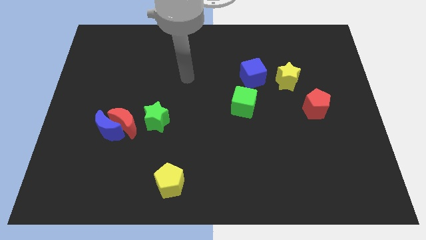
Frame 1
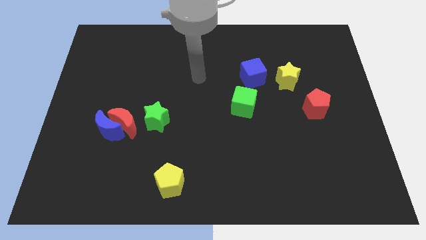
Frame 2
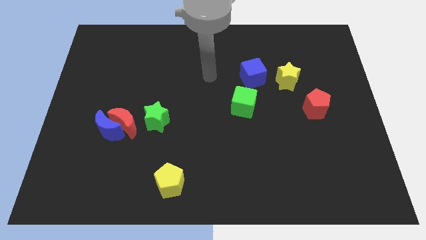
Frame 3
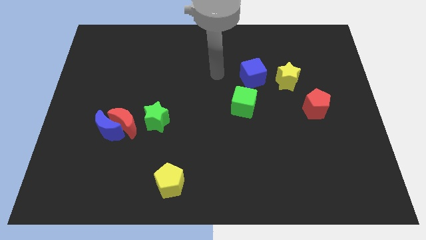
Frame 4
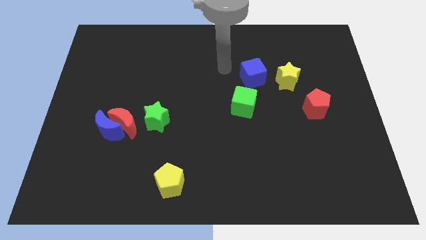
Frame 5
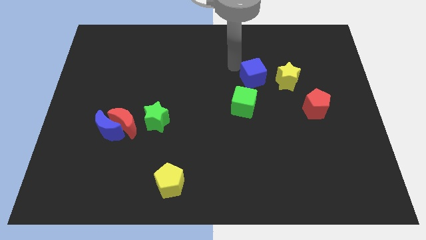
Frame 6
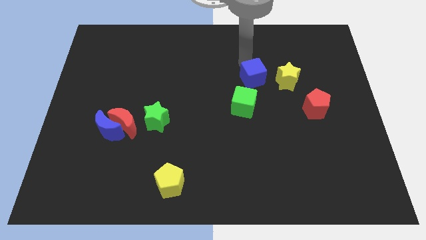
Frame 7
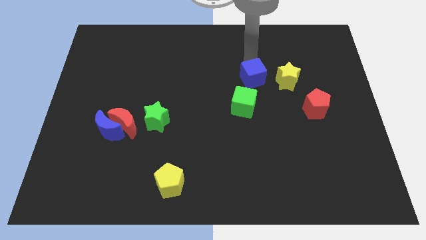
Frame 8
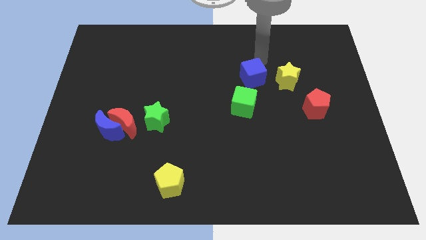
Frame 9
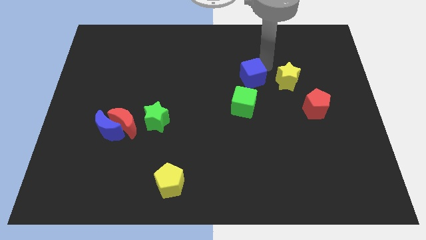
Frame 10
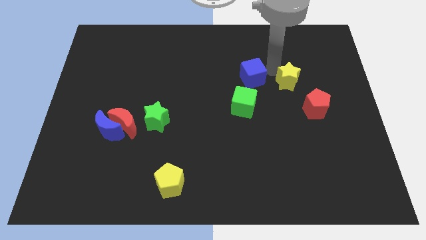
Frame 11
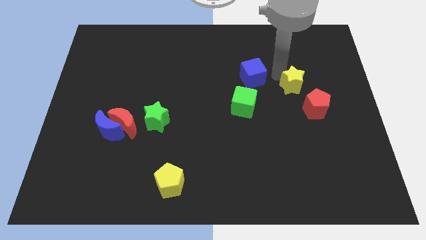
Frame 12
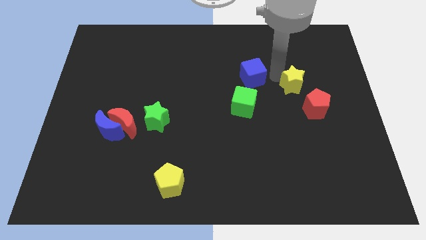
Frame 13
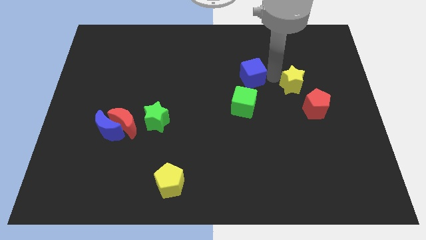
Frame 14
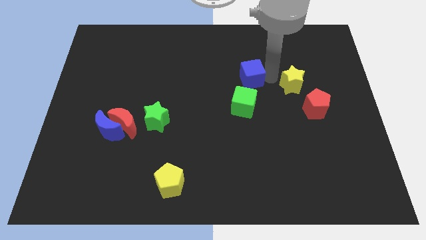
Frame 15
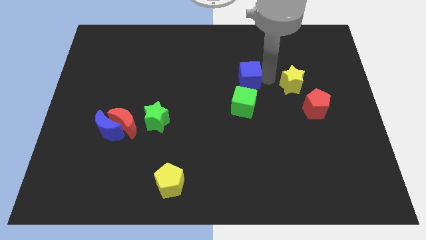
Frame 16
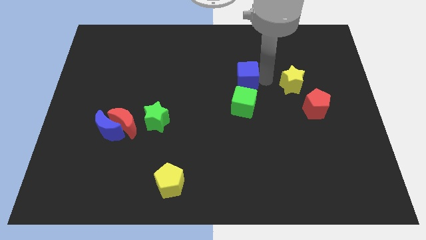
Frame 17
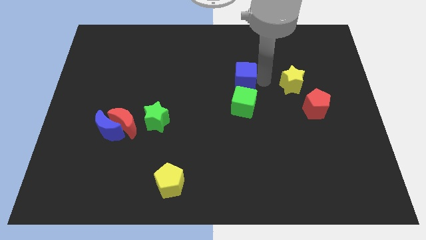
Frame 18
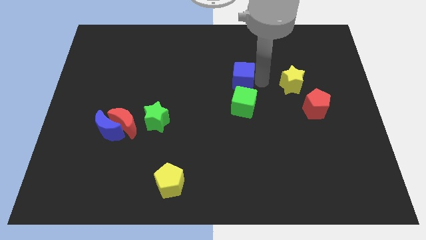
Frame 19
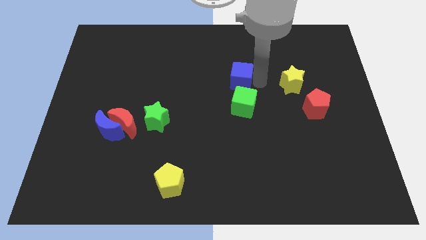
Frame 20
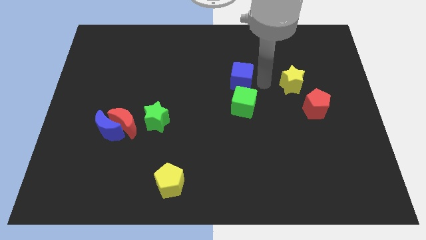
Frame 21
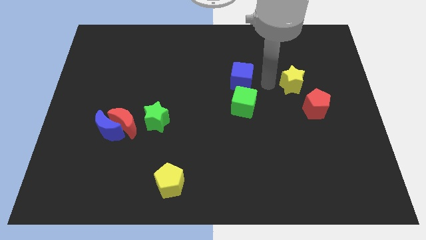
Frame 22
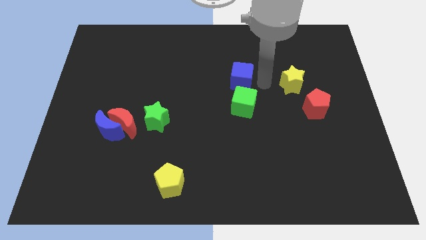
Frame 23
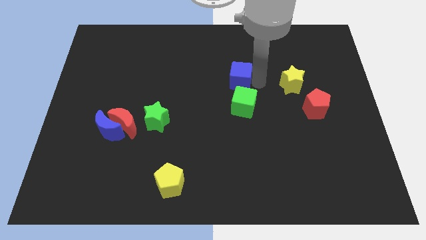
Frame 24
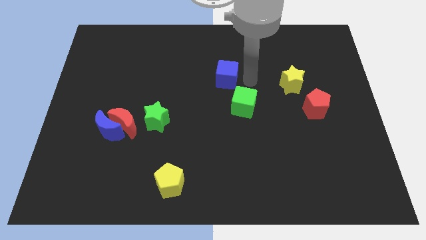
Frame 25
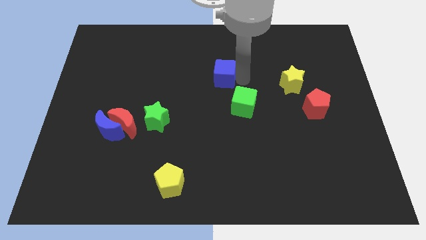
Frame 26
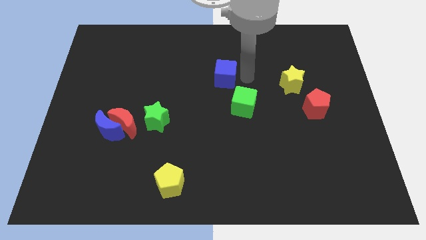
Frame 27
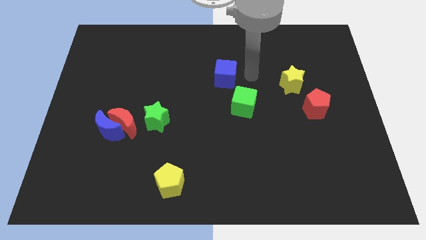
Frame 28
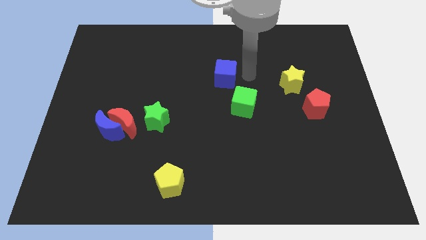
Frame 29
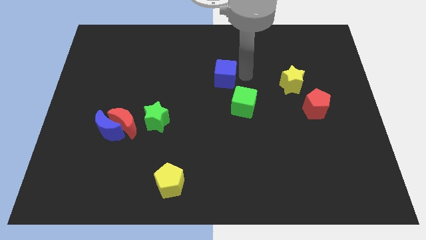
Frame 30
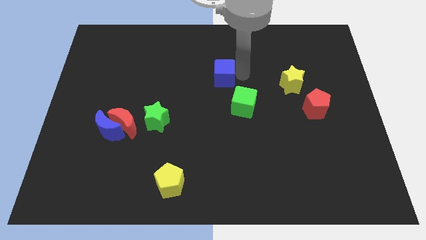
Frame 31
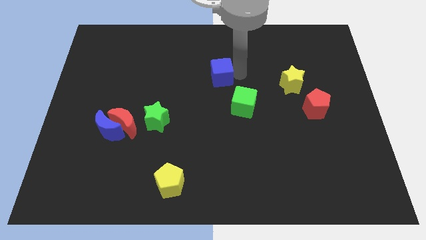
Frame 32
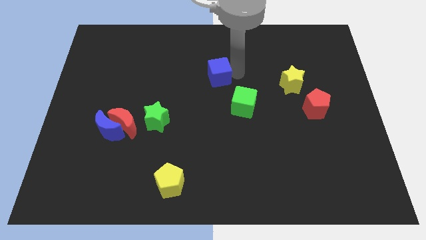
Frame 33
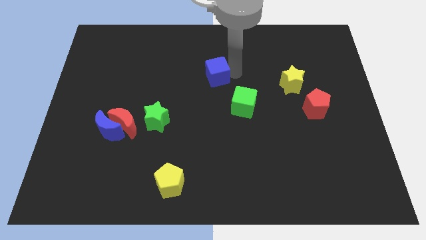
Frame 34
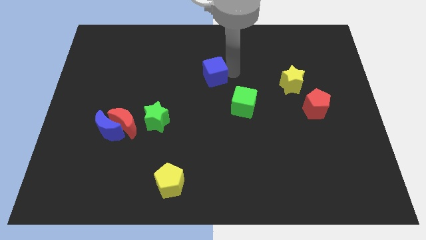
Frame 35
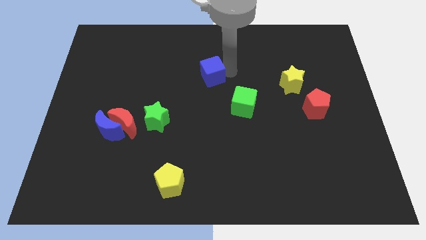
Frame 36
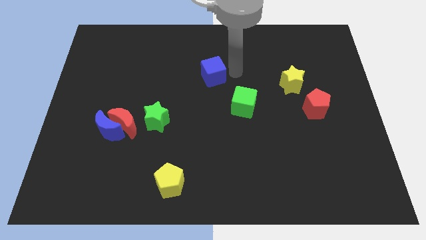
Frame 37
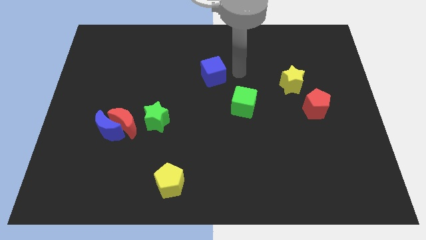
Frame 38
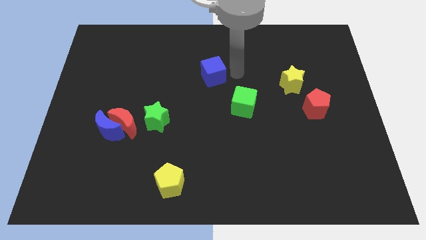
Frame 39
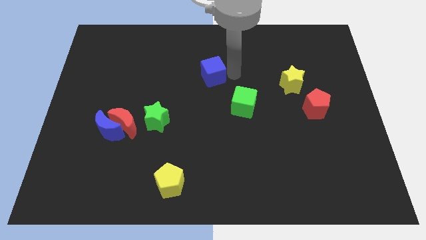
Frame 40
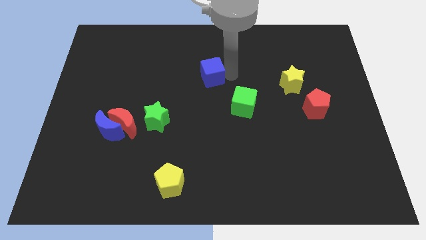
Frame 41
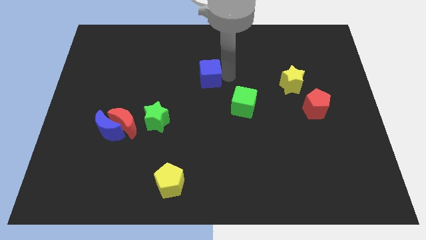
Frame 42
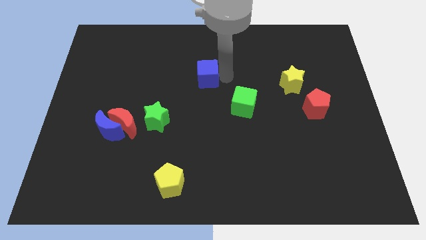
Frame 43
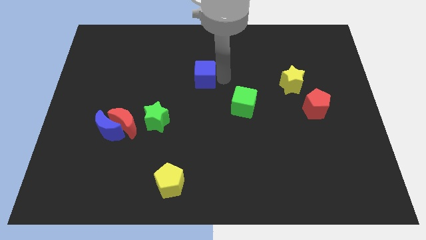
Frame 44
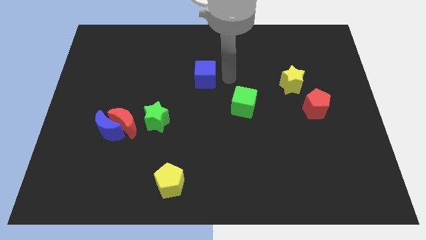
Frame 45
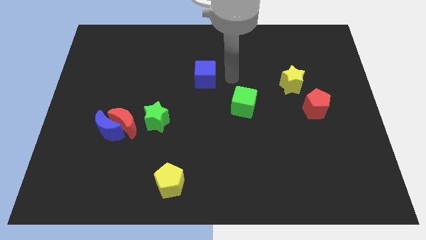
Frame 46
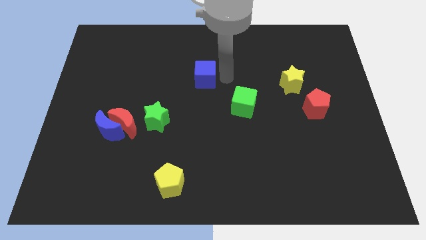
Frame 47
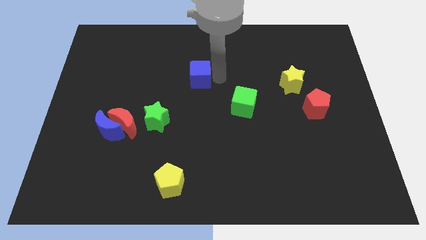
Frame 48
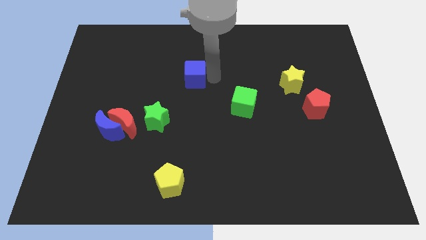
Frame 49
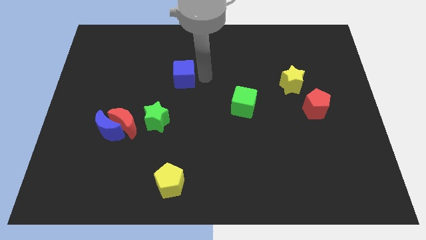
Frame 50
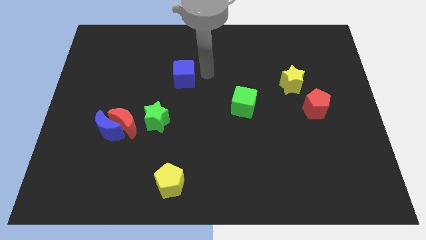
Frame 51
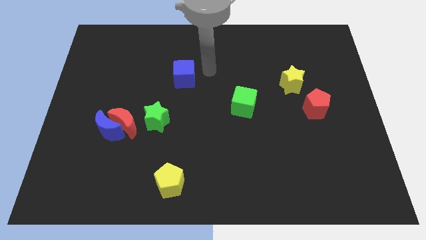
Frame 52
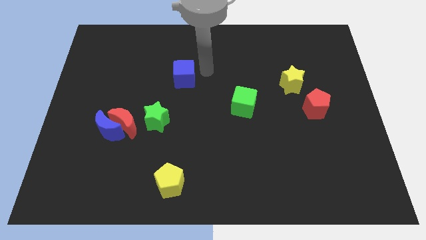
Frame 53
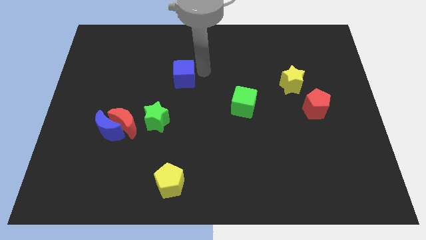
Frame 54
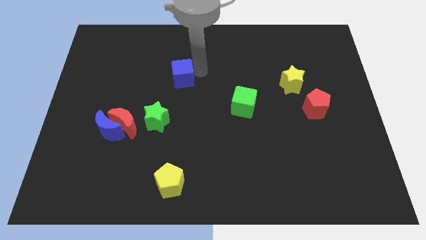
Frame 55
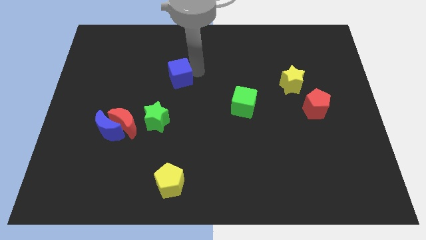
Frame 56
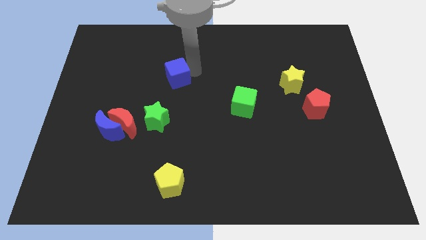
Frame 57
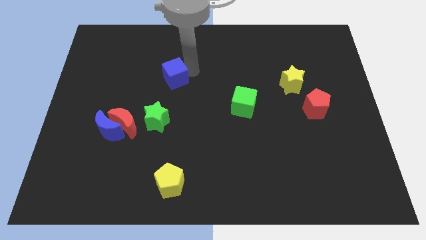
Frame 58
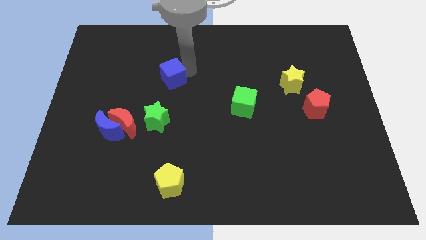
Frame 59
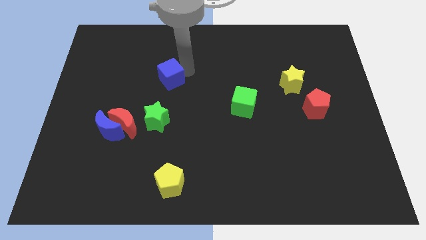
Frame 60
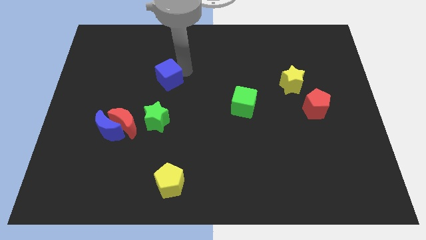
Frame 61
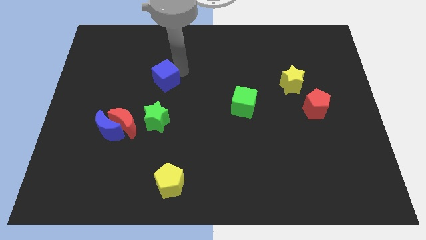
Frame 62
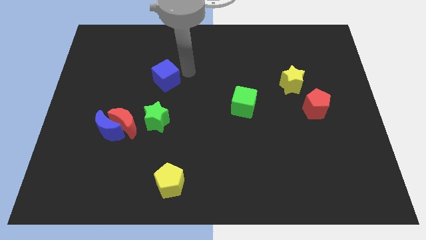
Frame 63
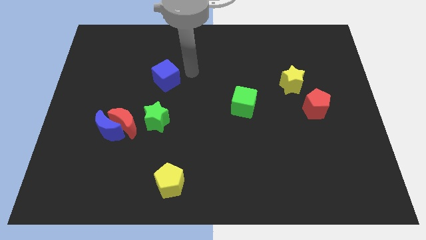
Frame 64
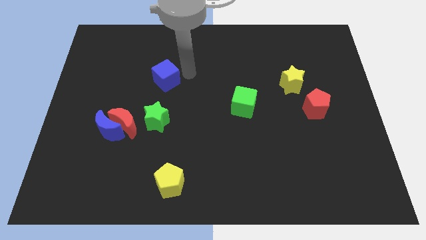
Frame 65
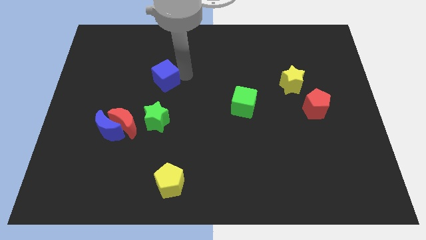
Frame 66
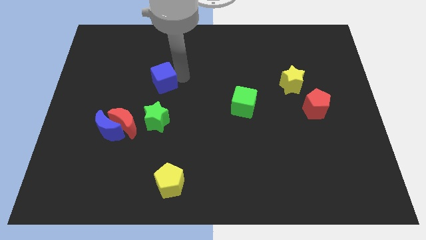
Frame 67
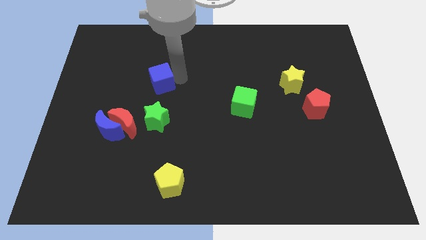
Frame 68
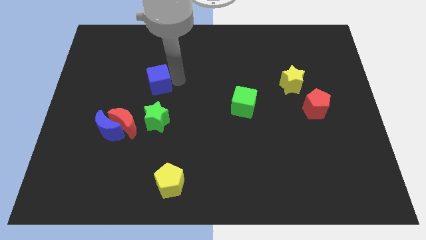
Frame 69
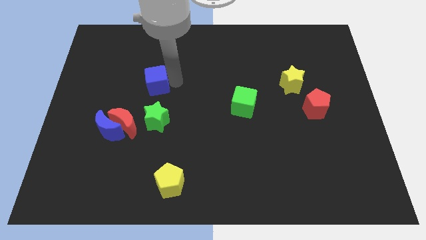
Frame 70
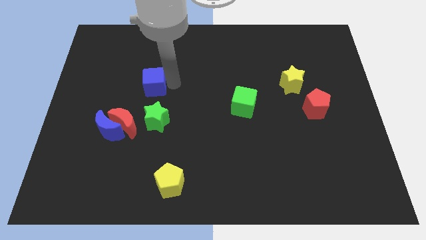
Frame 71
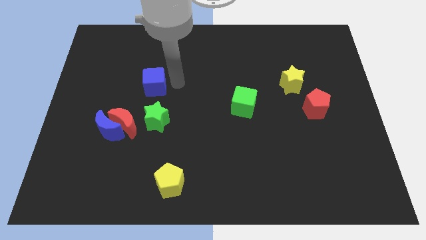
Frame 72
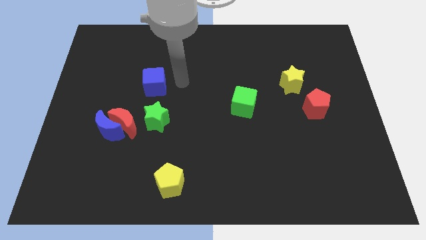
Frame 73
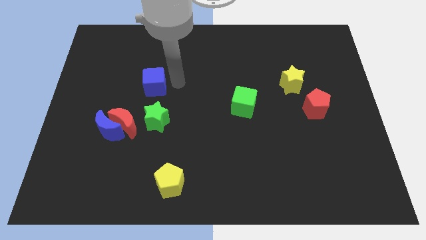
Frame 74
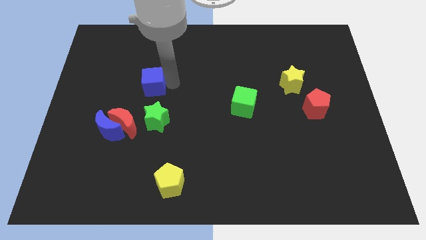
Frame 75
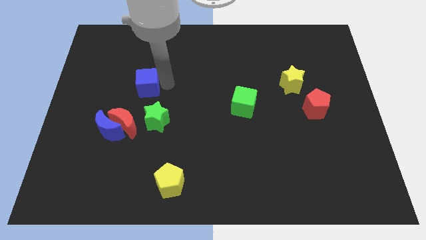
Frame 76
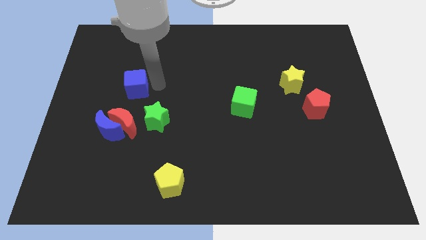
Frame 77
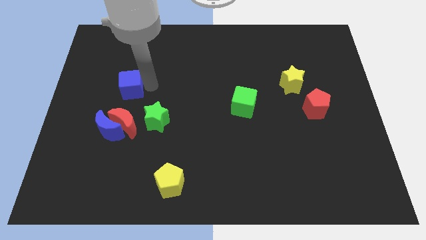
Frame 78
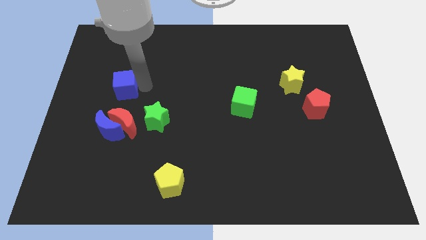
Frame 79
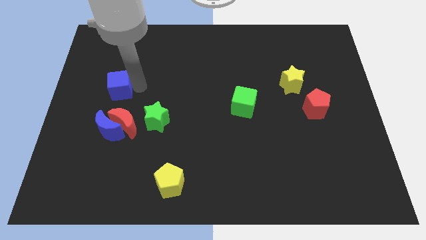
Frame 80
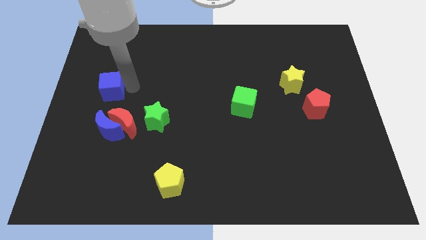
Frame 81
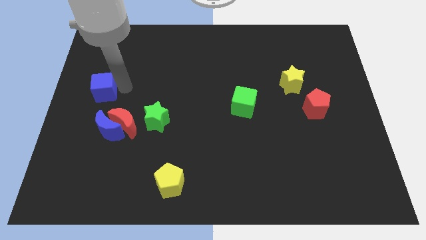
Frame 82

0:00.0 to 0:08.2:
slide the blue cube to the center left
